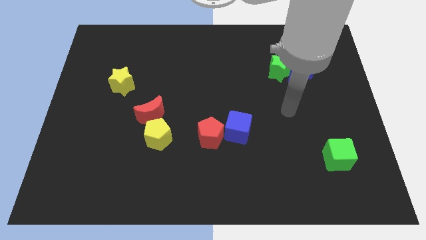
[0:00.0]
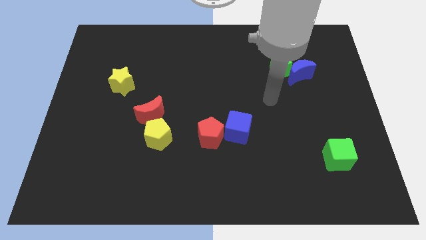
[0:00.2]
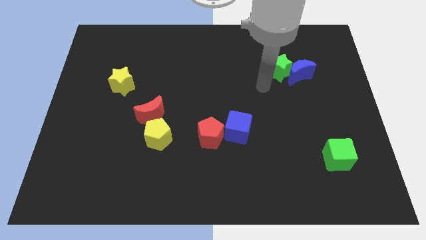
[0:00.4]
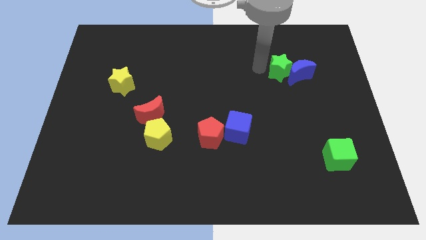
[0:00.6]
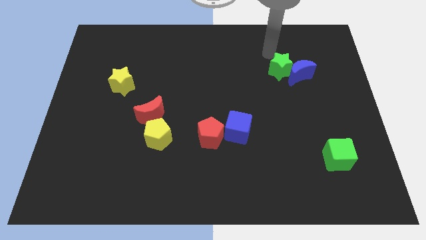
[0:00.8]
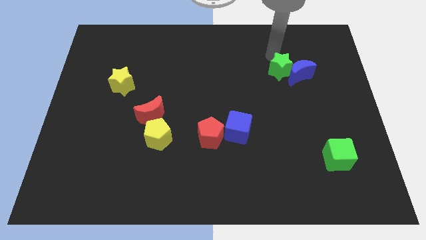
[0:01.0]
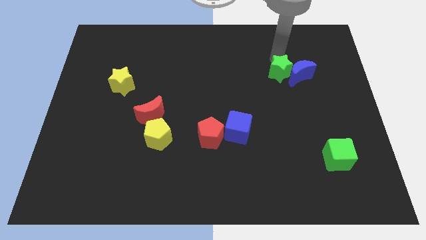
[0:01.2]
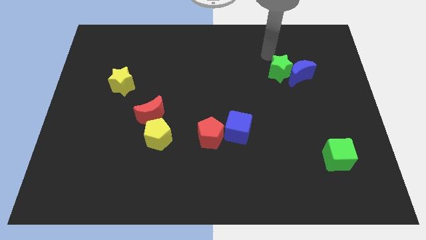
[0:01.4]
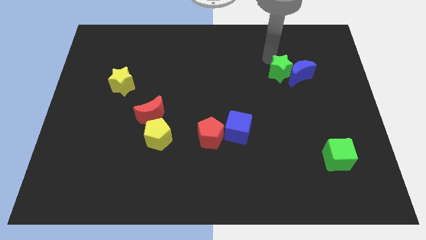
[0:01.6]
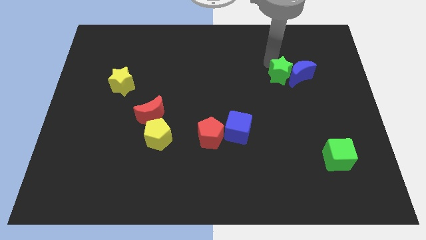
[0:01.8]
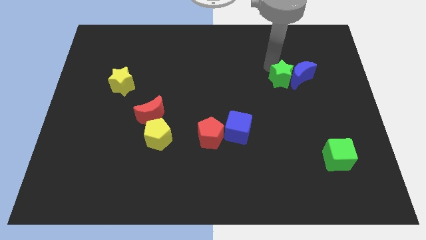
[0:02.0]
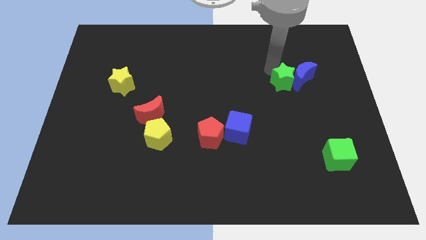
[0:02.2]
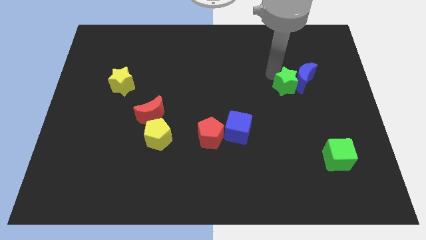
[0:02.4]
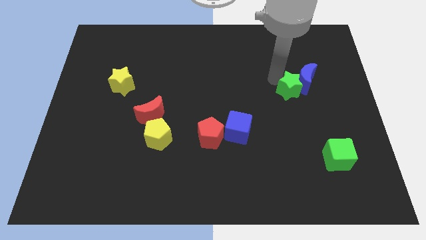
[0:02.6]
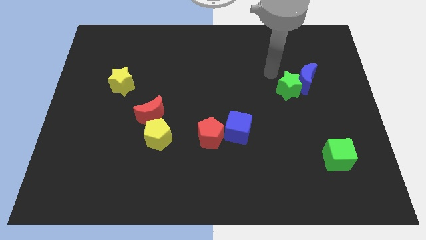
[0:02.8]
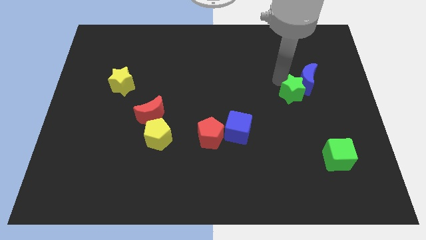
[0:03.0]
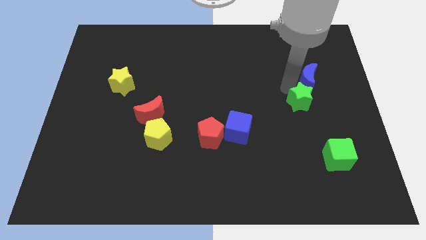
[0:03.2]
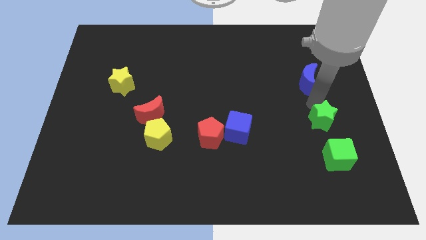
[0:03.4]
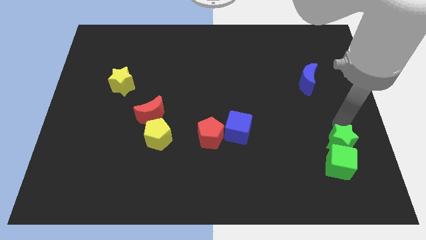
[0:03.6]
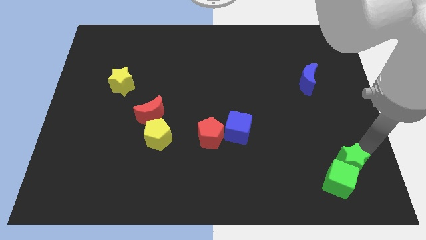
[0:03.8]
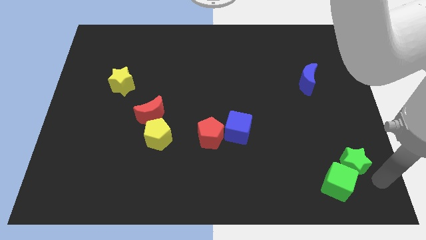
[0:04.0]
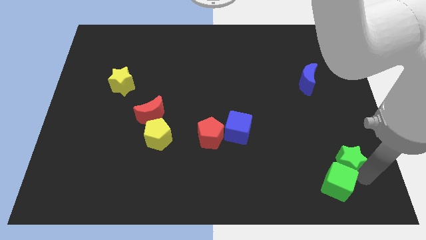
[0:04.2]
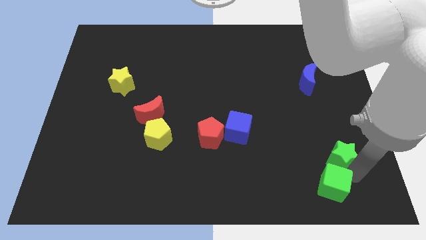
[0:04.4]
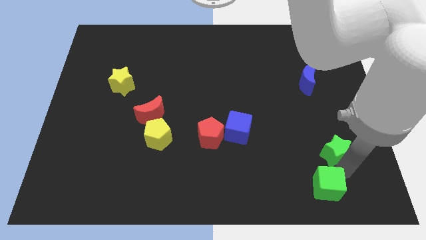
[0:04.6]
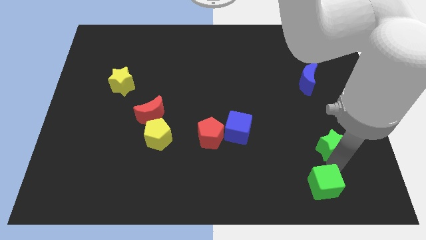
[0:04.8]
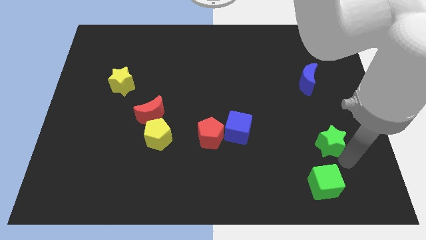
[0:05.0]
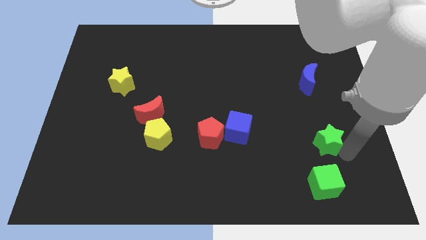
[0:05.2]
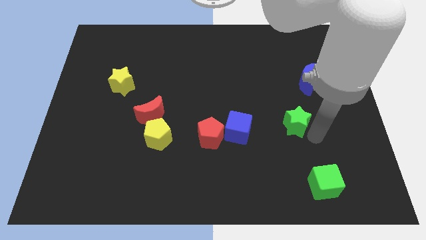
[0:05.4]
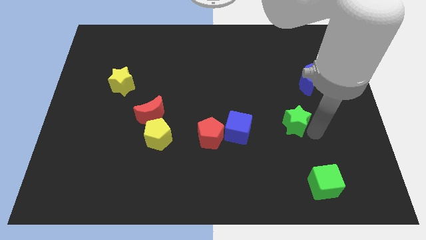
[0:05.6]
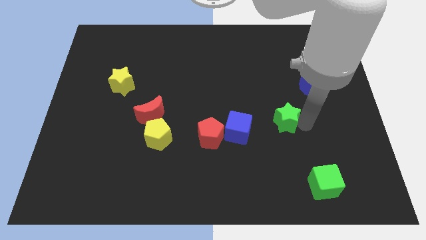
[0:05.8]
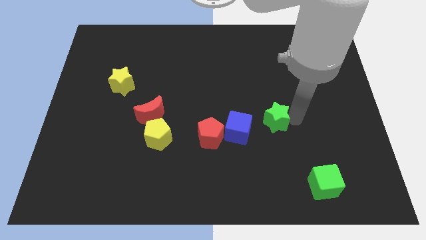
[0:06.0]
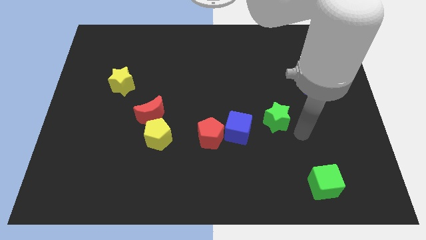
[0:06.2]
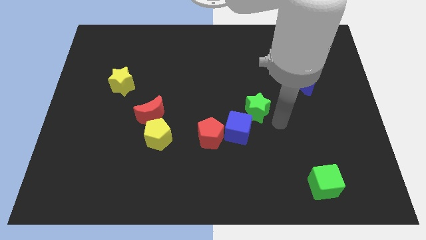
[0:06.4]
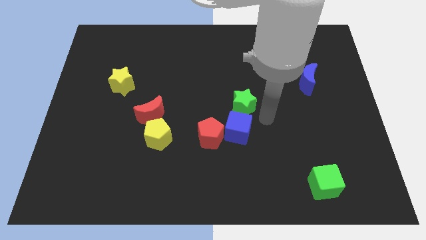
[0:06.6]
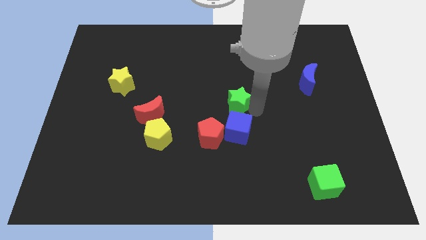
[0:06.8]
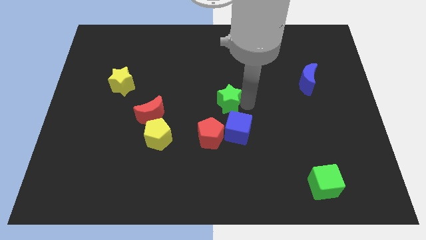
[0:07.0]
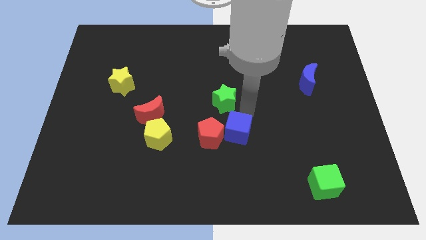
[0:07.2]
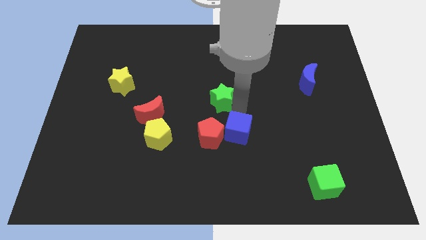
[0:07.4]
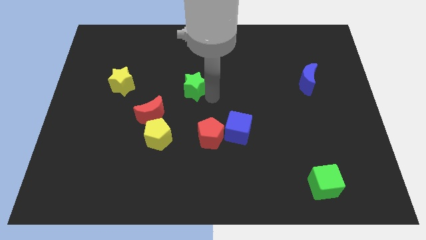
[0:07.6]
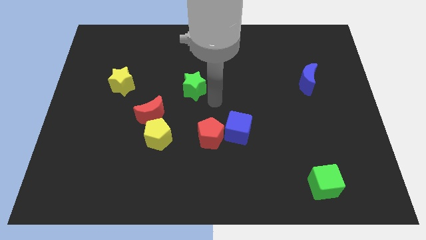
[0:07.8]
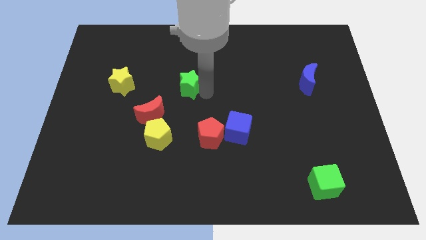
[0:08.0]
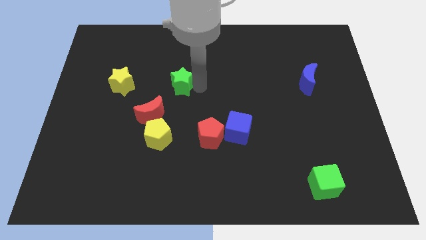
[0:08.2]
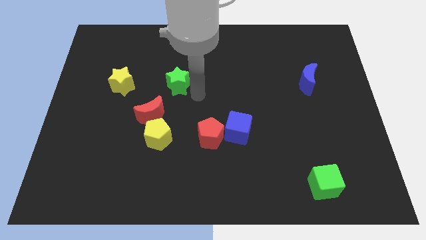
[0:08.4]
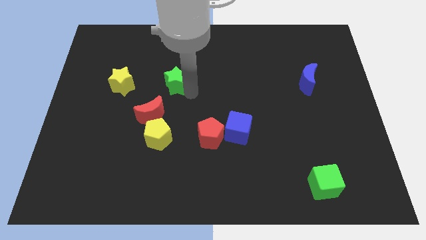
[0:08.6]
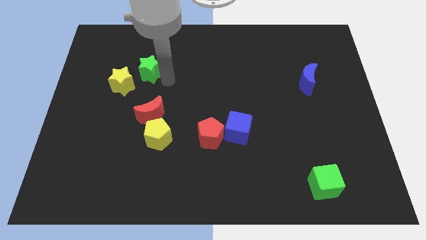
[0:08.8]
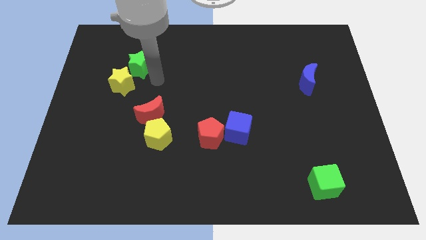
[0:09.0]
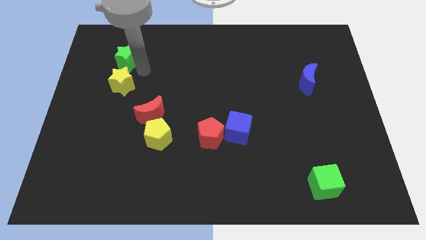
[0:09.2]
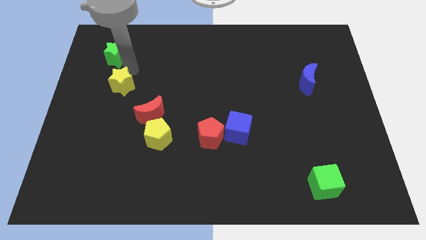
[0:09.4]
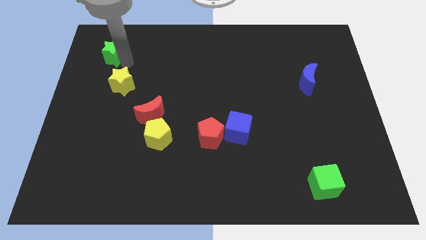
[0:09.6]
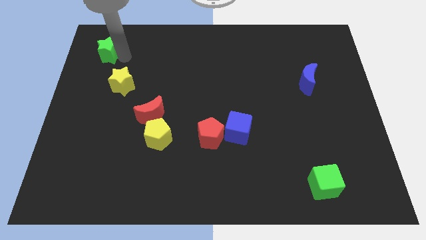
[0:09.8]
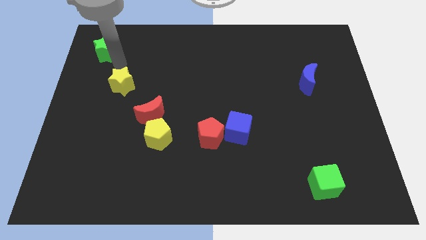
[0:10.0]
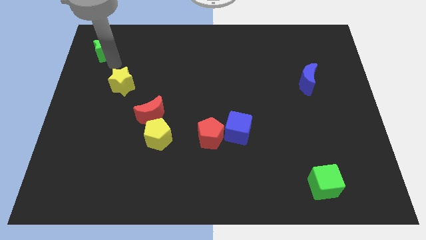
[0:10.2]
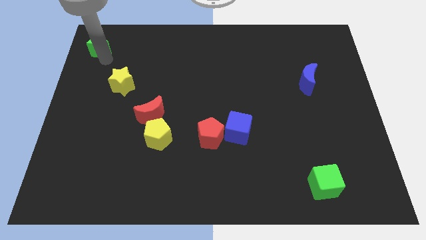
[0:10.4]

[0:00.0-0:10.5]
move the green star to the top left corner

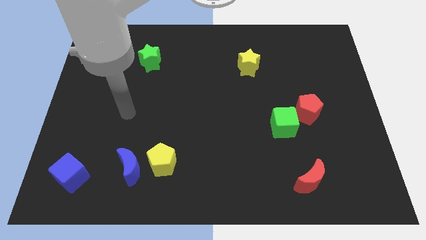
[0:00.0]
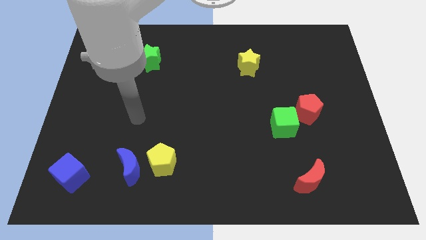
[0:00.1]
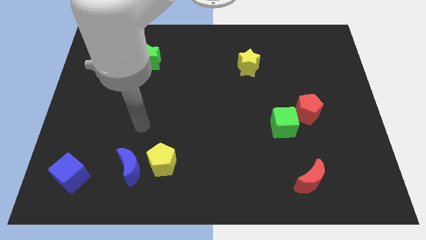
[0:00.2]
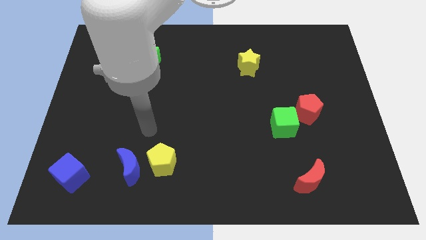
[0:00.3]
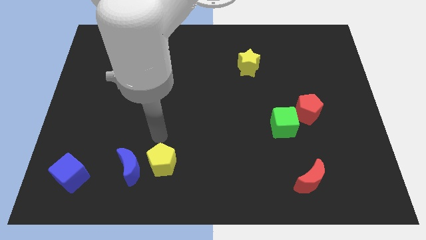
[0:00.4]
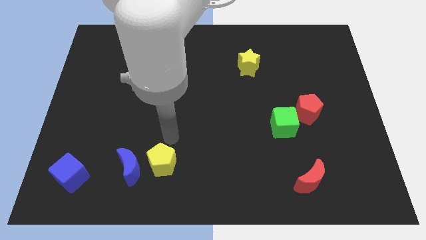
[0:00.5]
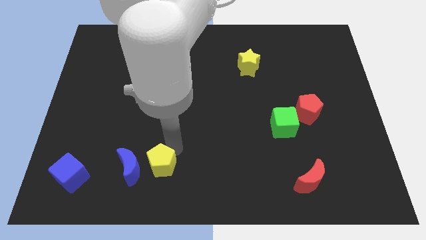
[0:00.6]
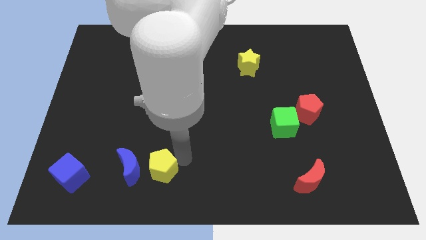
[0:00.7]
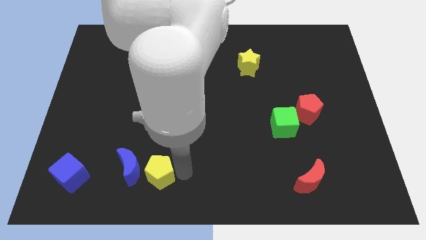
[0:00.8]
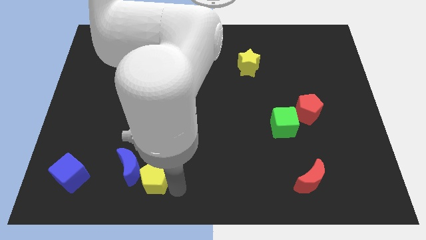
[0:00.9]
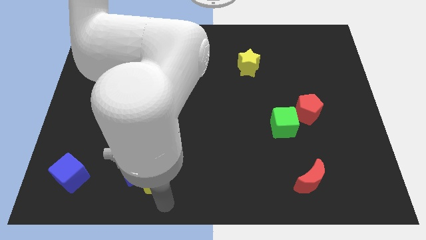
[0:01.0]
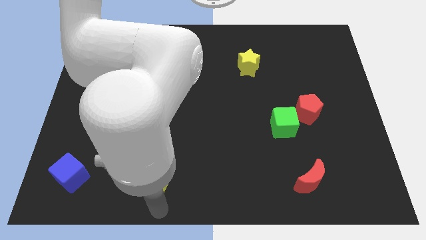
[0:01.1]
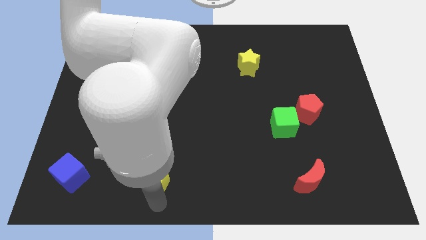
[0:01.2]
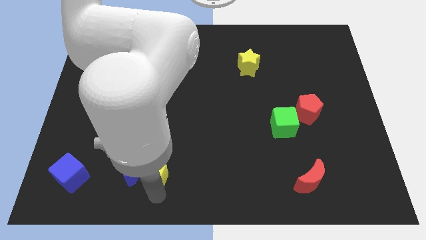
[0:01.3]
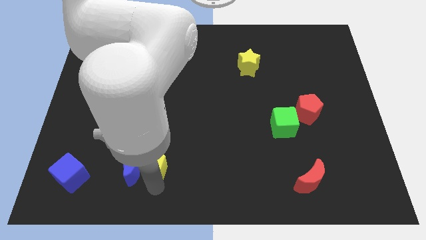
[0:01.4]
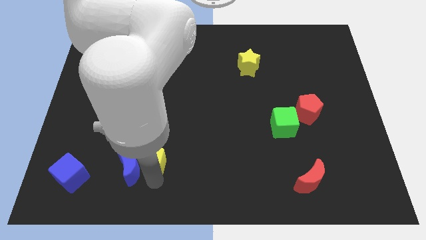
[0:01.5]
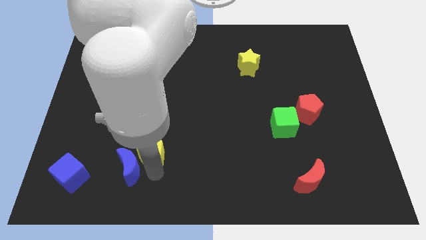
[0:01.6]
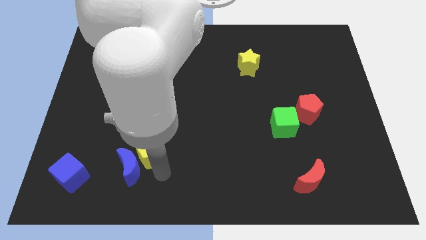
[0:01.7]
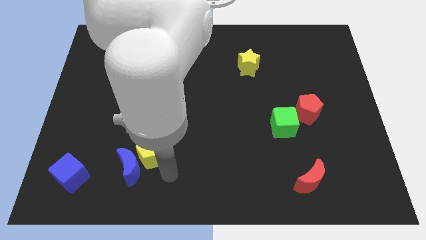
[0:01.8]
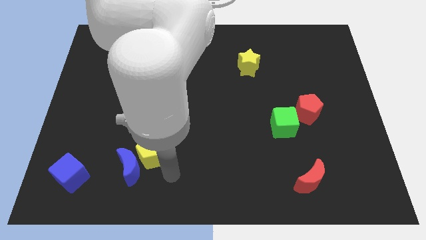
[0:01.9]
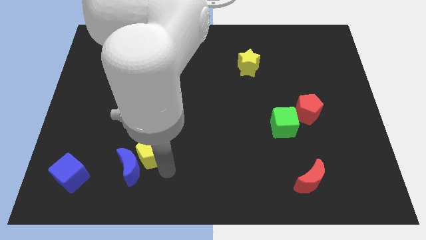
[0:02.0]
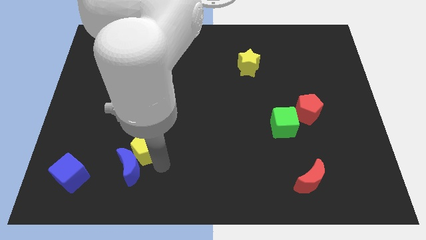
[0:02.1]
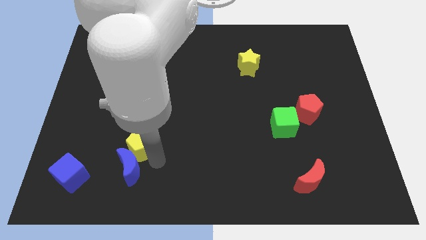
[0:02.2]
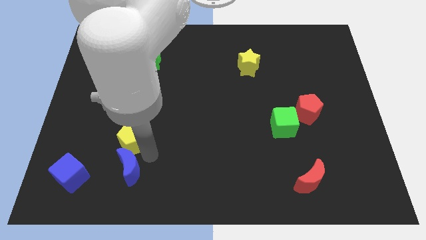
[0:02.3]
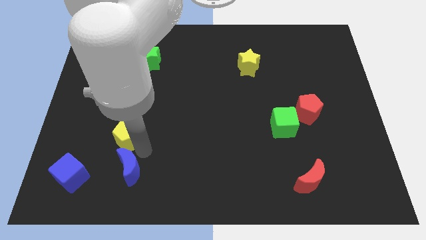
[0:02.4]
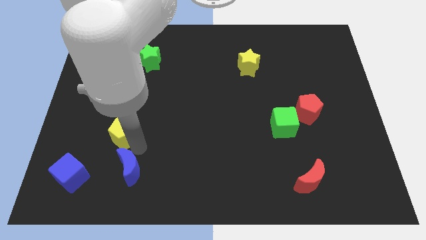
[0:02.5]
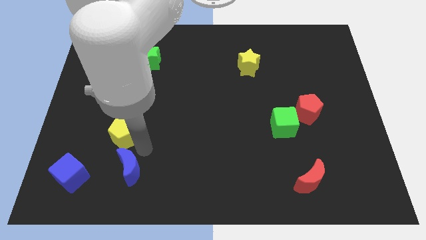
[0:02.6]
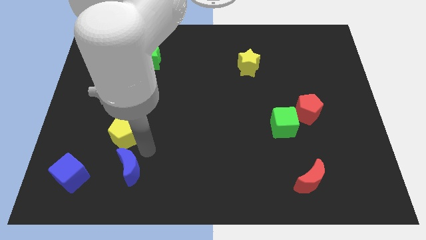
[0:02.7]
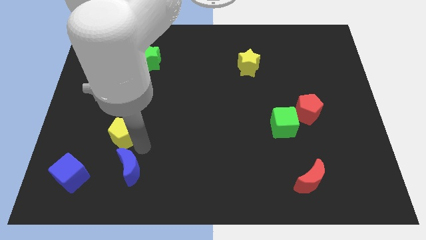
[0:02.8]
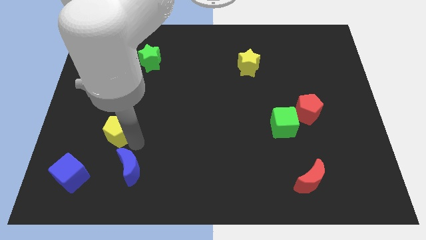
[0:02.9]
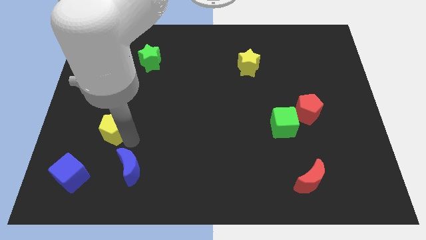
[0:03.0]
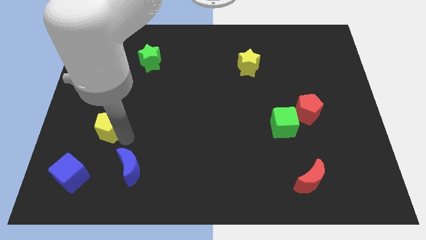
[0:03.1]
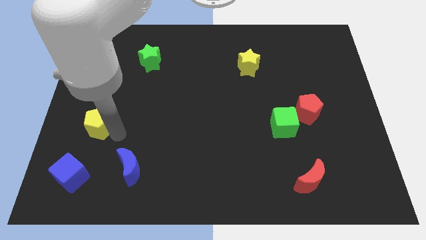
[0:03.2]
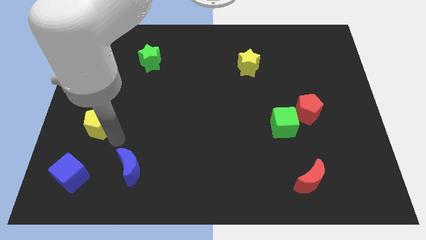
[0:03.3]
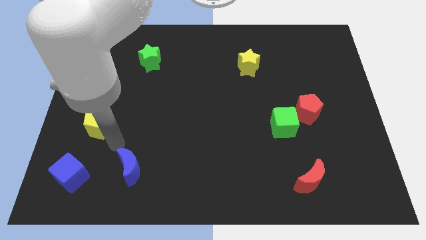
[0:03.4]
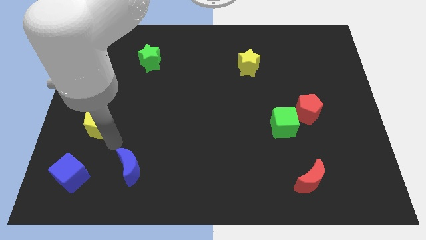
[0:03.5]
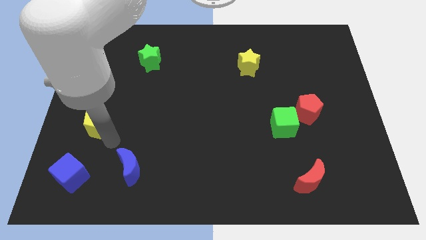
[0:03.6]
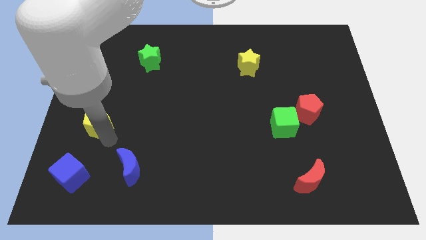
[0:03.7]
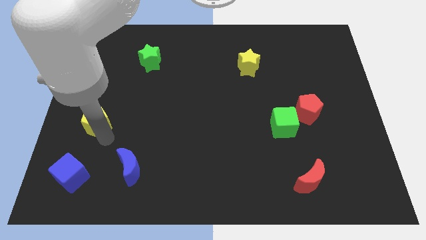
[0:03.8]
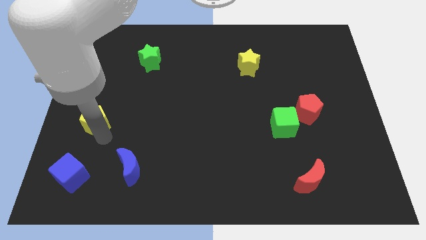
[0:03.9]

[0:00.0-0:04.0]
put the yellow pentagon to the left side of the board
